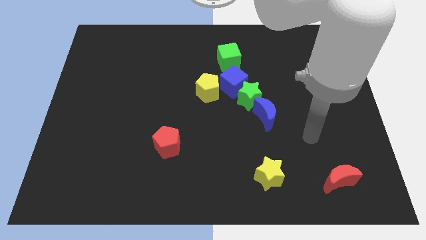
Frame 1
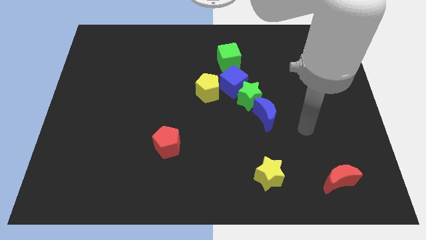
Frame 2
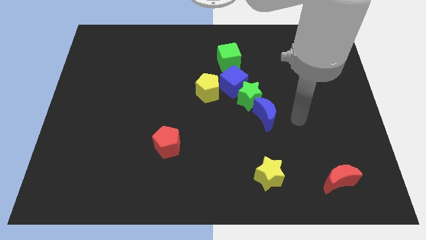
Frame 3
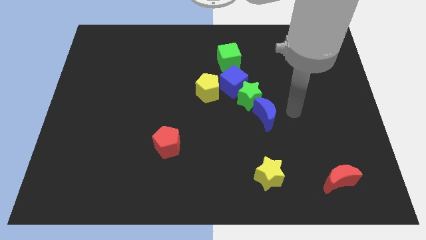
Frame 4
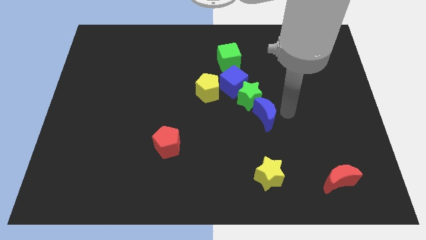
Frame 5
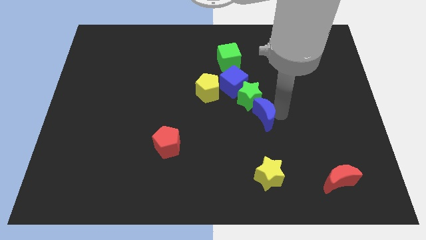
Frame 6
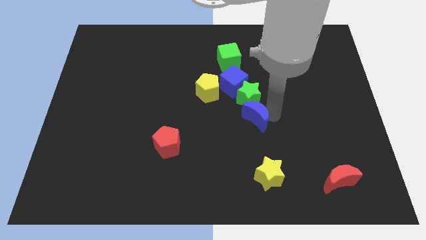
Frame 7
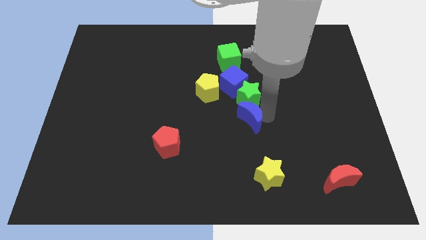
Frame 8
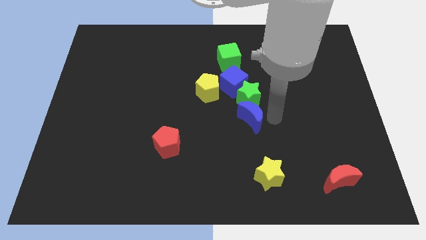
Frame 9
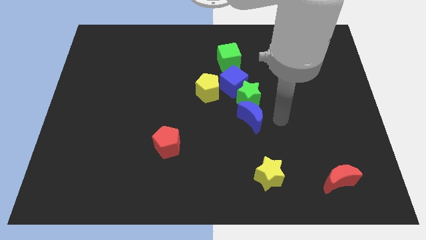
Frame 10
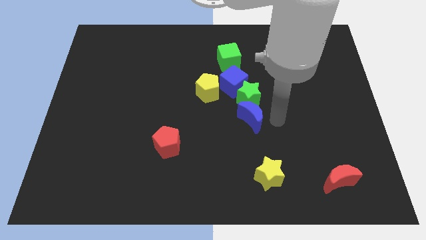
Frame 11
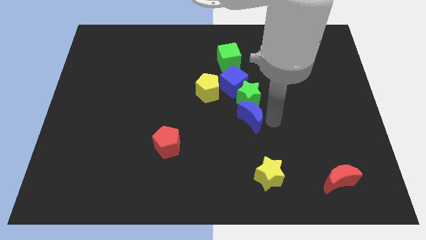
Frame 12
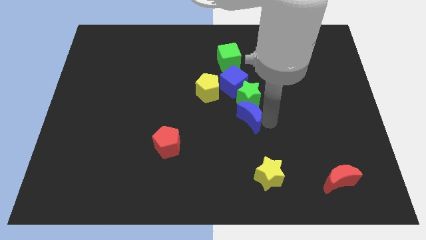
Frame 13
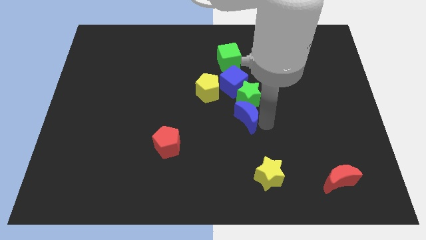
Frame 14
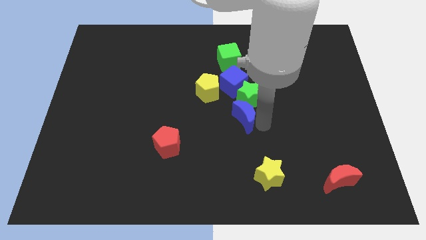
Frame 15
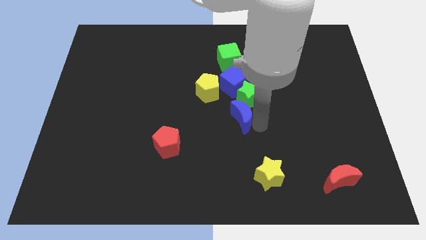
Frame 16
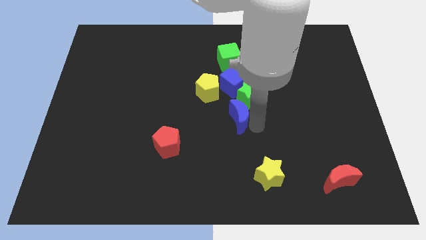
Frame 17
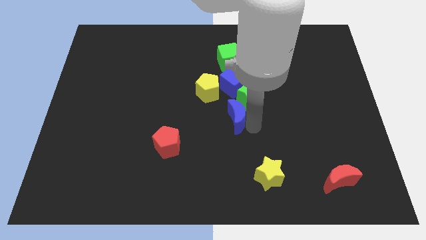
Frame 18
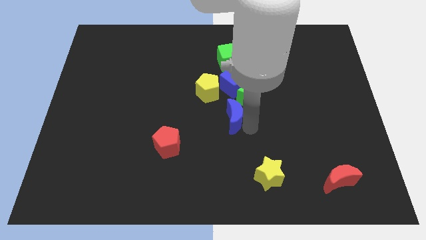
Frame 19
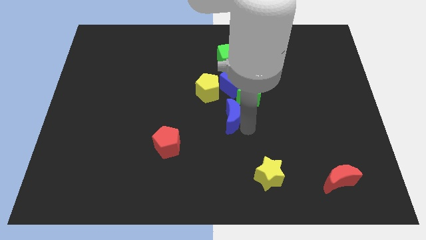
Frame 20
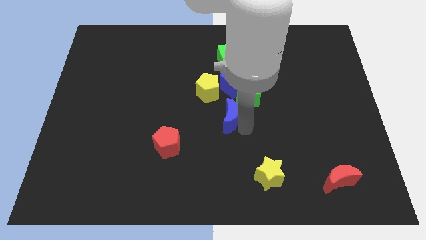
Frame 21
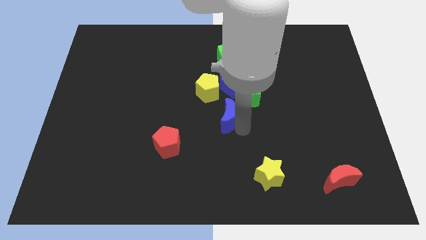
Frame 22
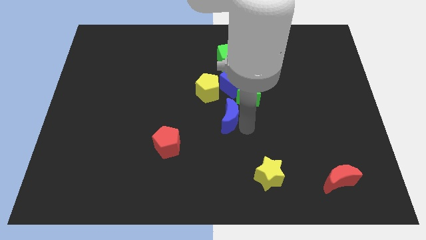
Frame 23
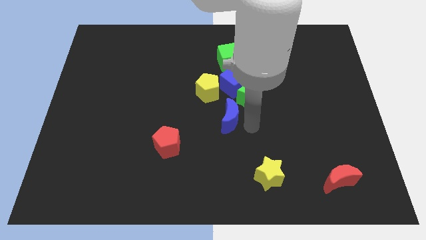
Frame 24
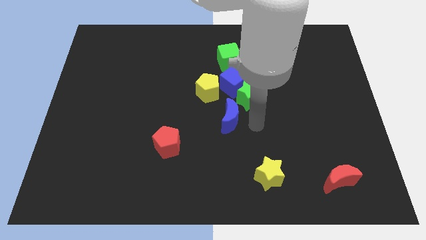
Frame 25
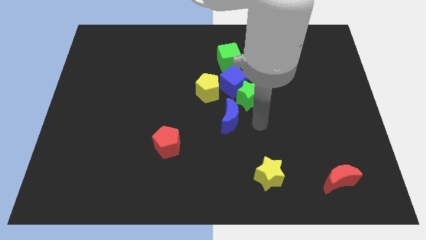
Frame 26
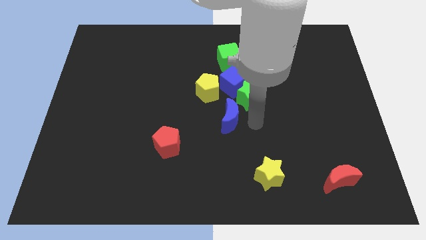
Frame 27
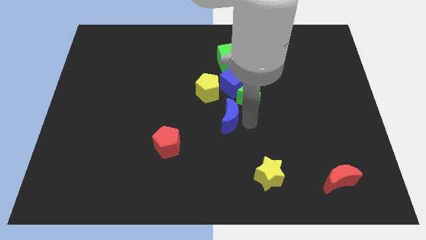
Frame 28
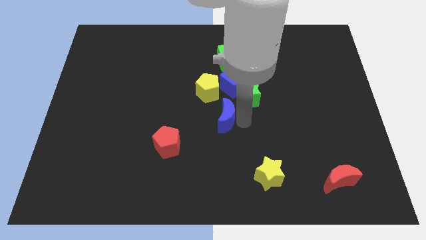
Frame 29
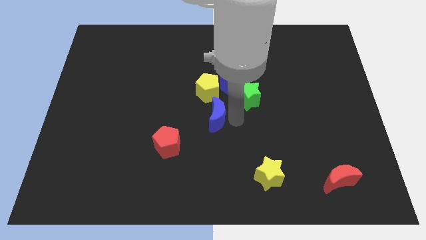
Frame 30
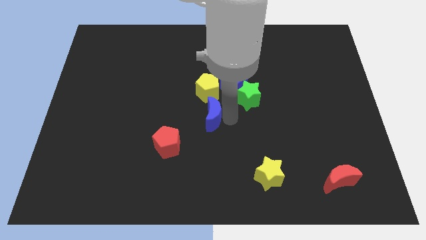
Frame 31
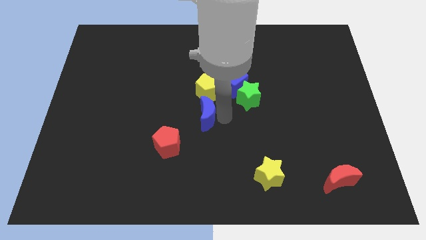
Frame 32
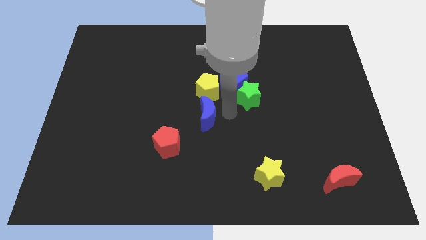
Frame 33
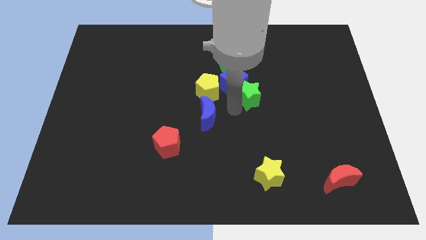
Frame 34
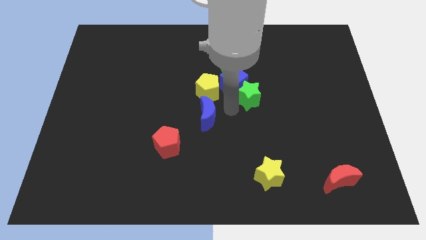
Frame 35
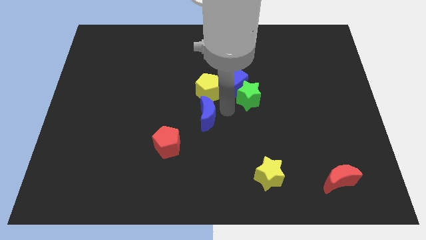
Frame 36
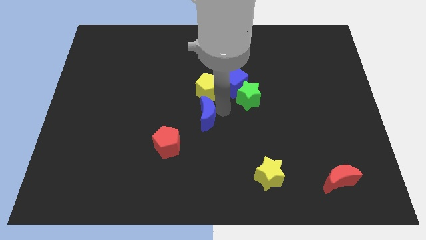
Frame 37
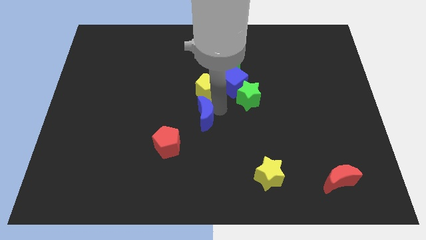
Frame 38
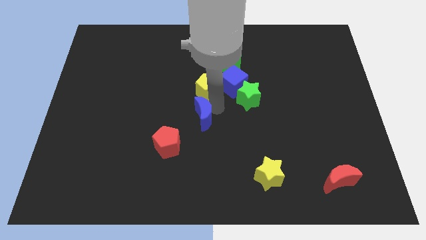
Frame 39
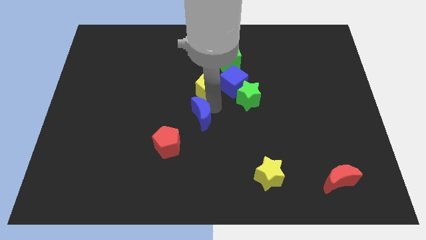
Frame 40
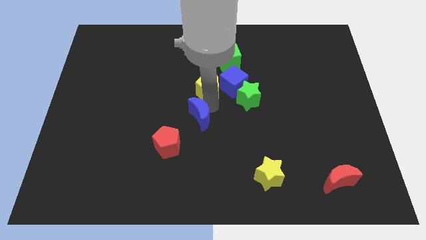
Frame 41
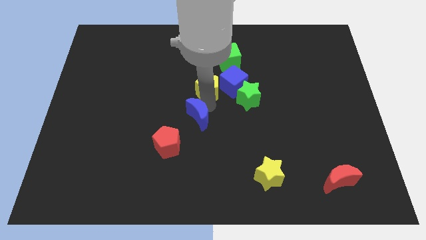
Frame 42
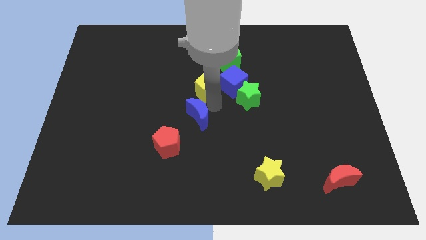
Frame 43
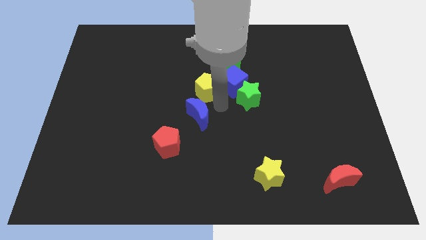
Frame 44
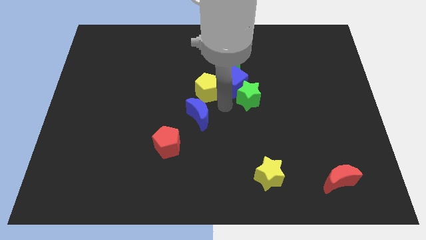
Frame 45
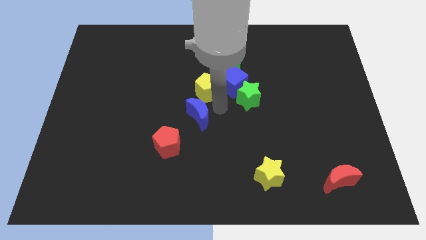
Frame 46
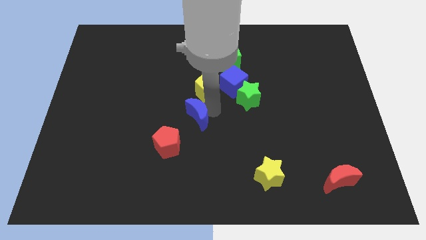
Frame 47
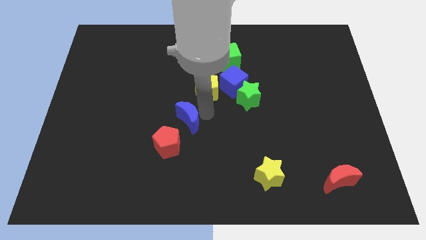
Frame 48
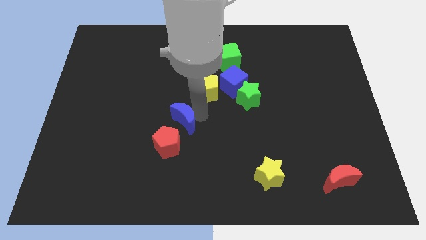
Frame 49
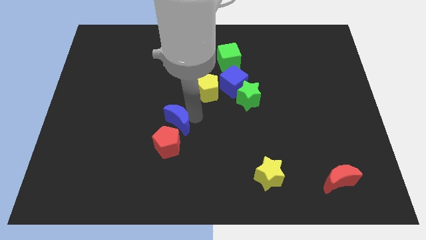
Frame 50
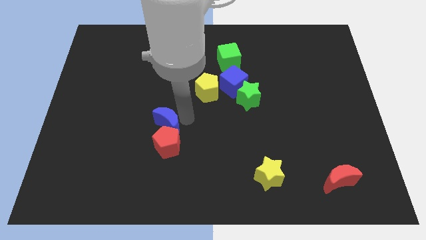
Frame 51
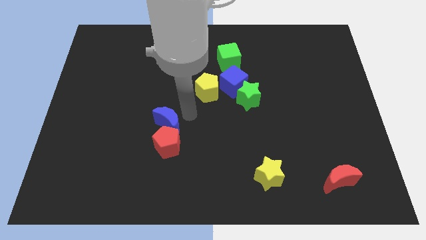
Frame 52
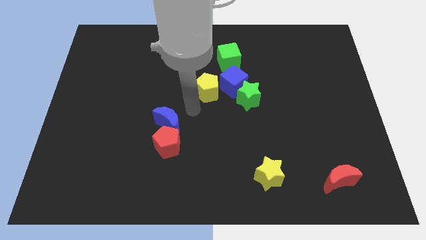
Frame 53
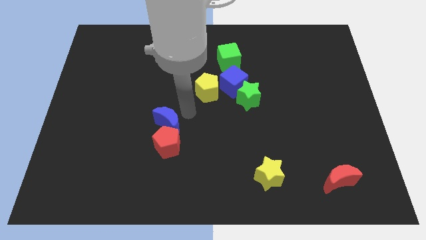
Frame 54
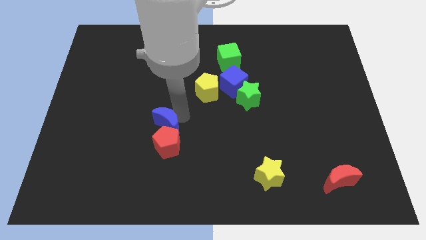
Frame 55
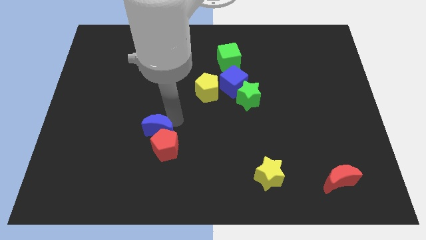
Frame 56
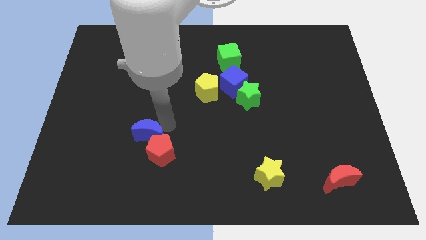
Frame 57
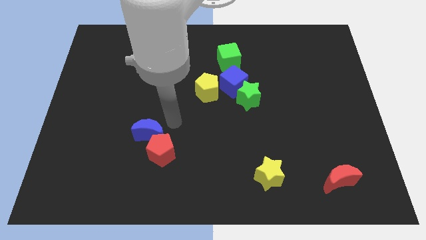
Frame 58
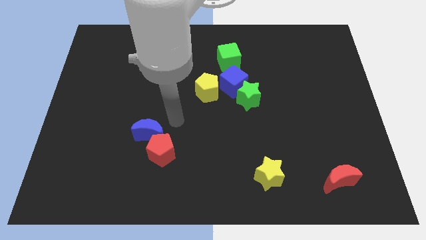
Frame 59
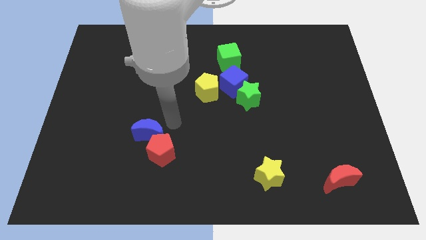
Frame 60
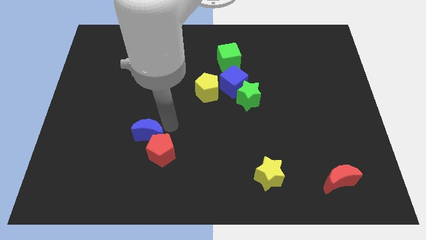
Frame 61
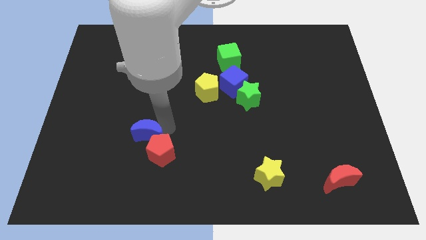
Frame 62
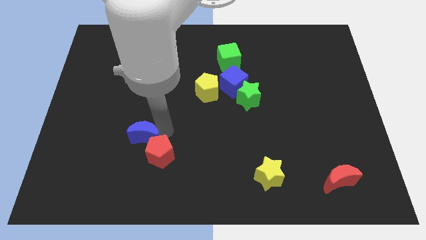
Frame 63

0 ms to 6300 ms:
put the blue moon to the left side of the red pentagon
